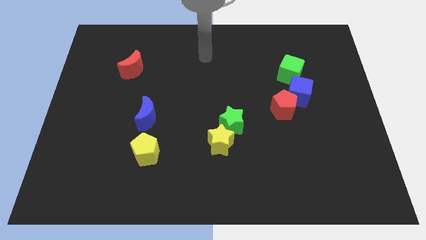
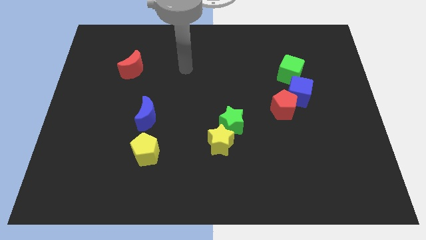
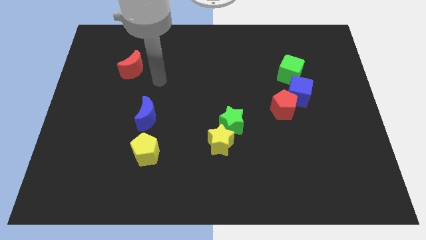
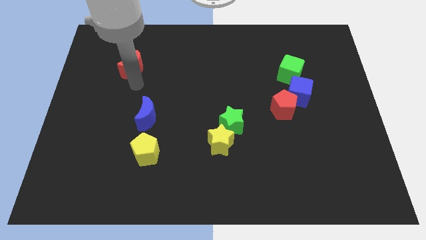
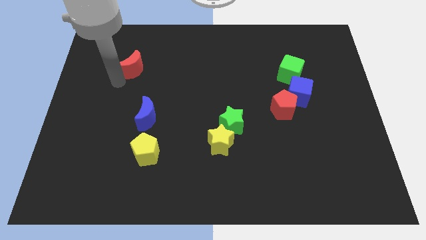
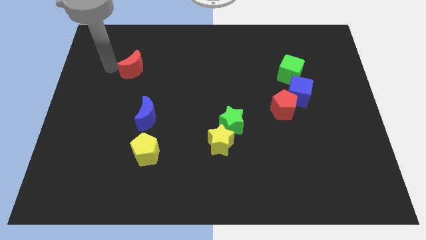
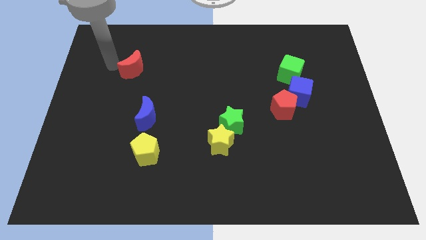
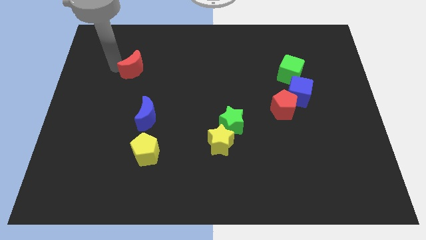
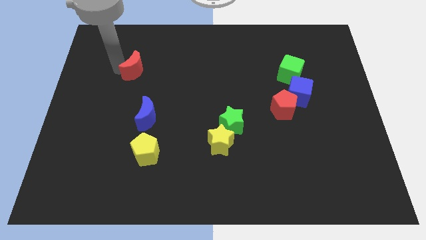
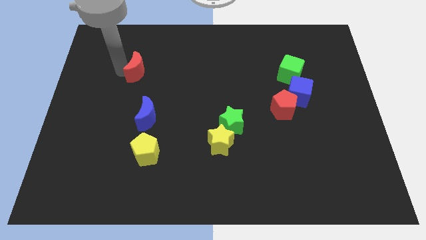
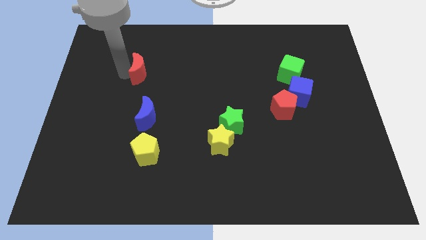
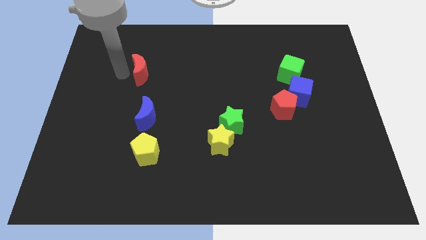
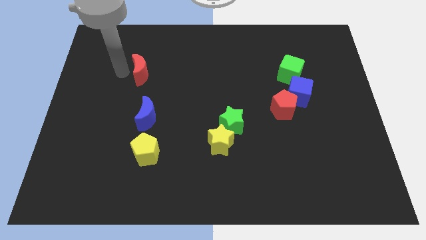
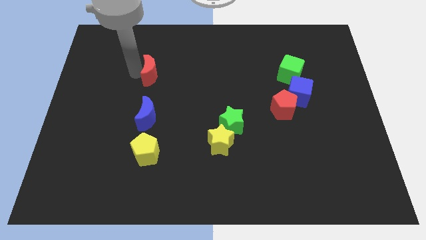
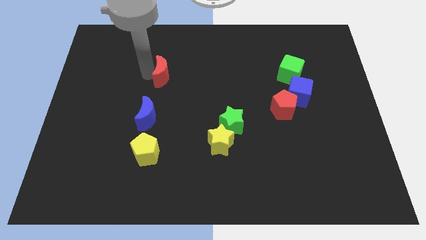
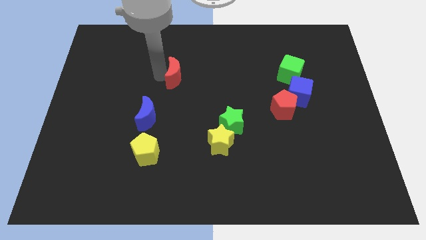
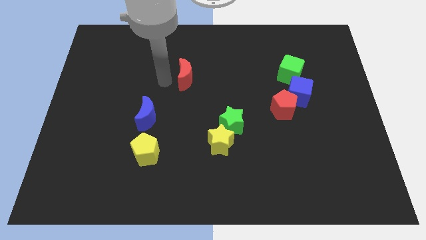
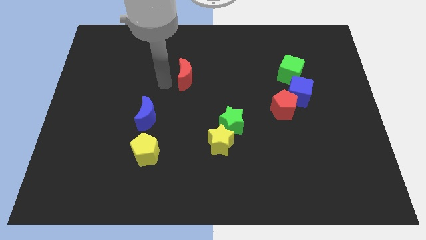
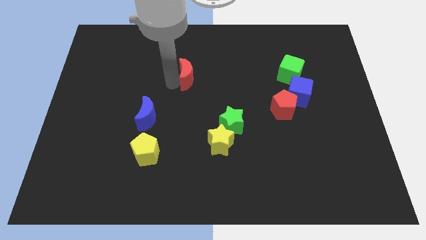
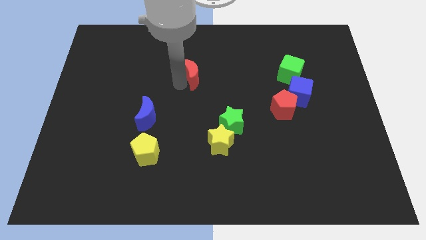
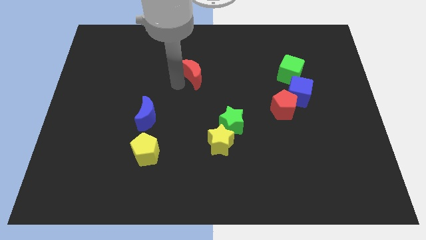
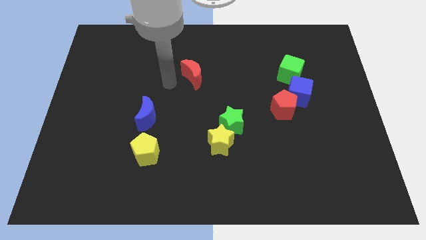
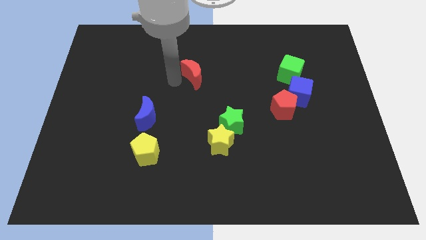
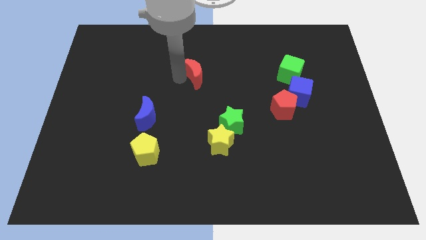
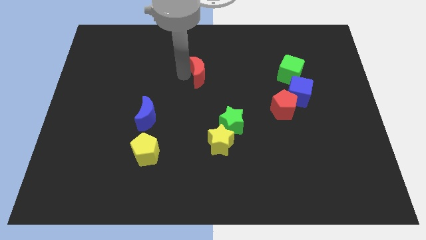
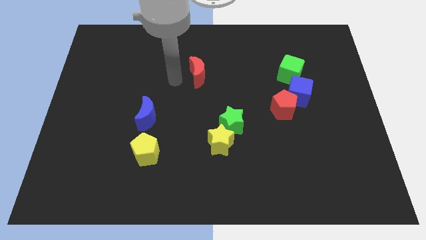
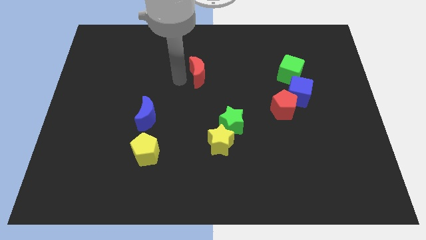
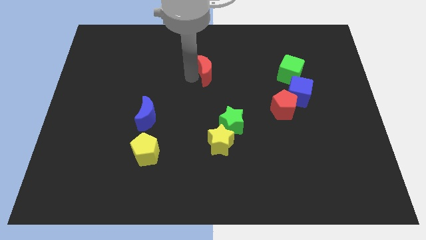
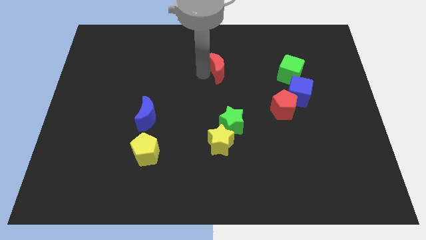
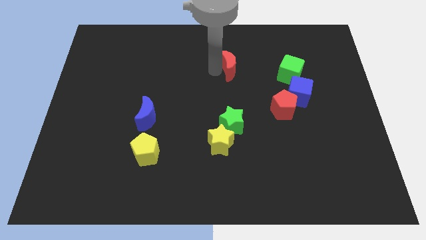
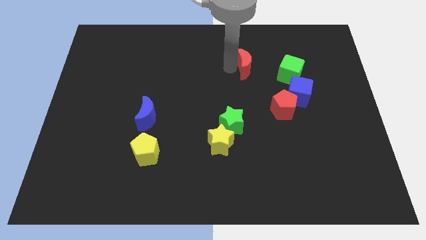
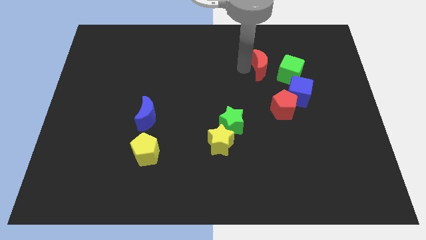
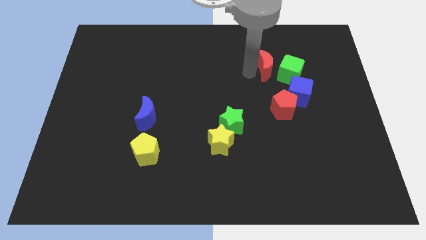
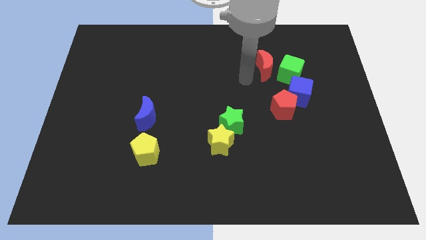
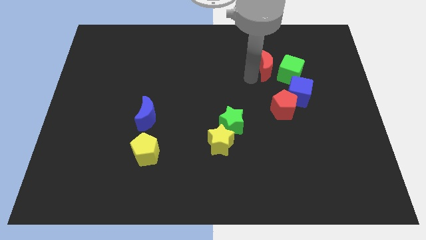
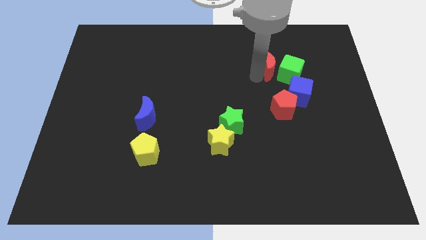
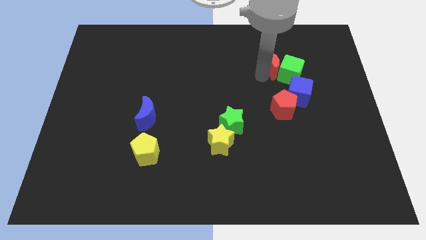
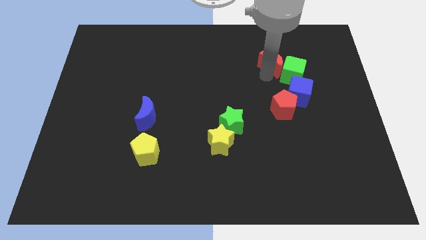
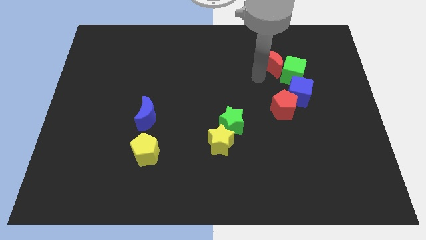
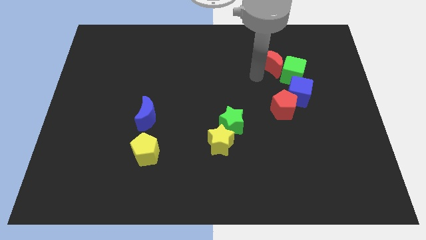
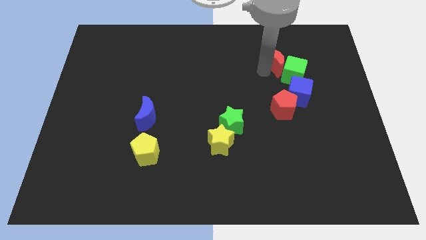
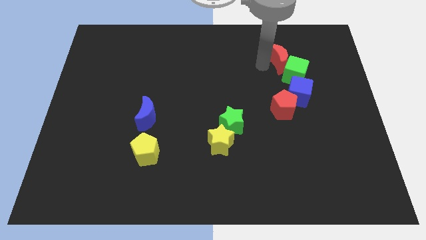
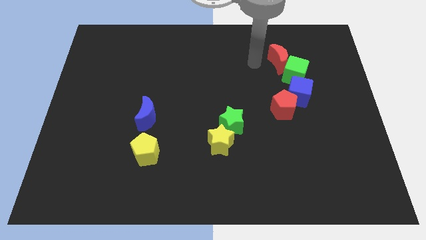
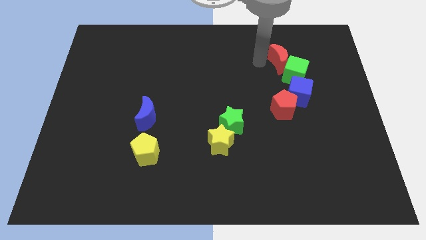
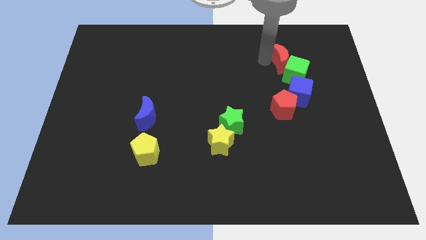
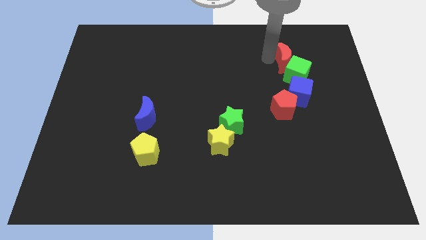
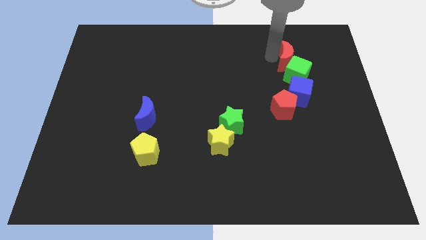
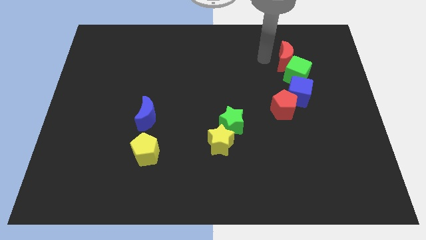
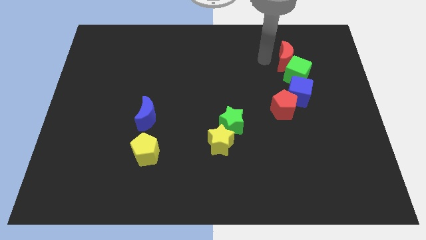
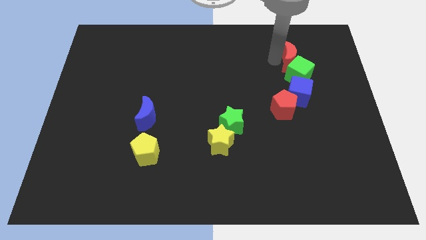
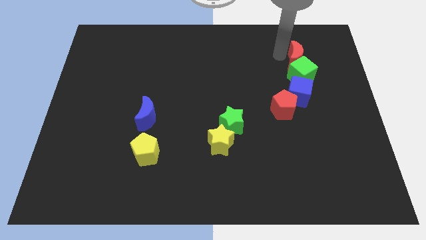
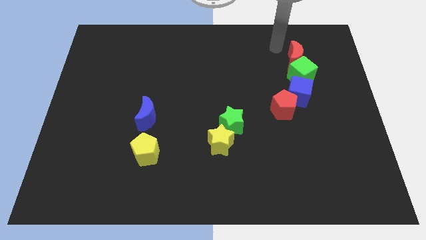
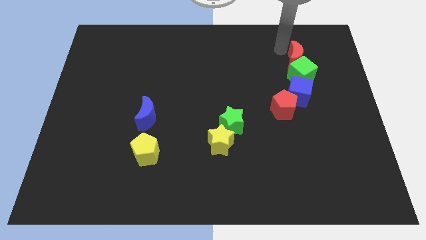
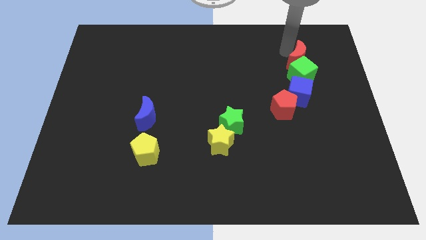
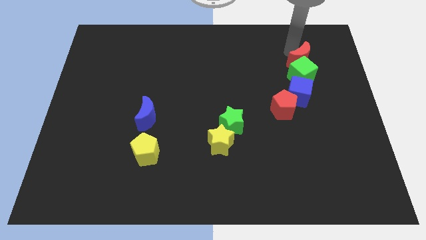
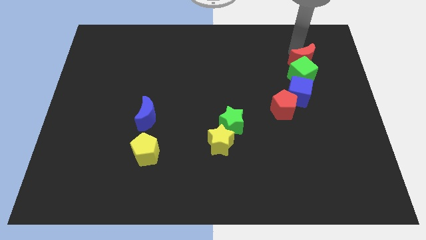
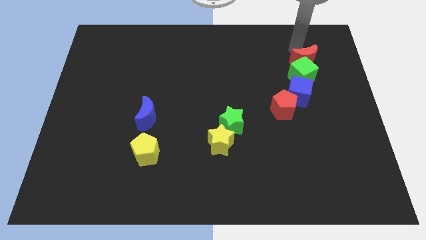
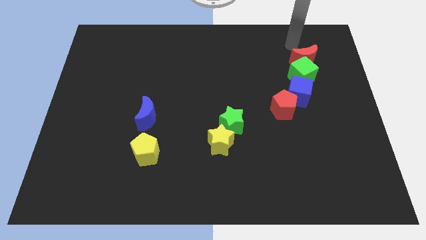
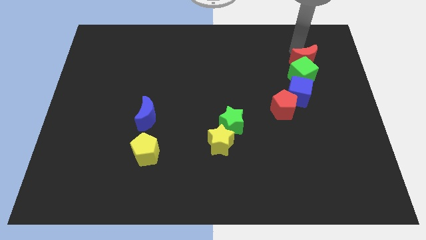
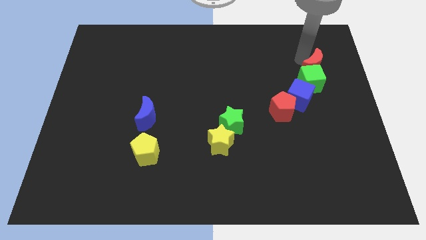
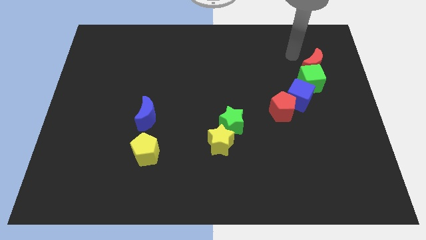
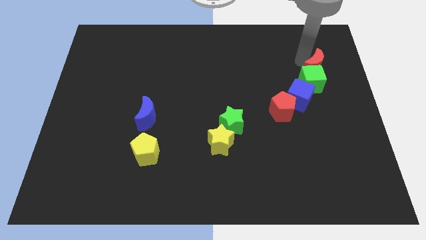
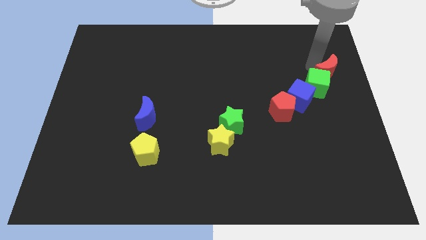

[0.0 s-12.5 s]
push the red moon to the right side
